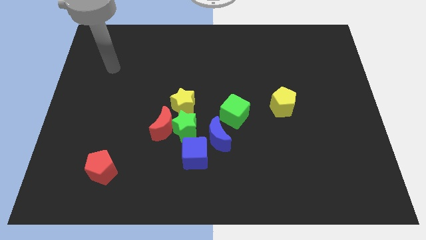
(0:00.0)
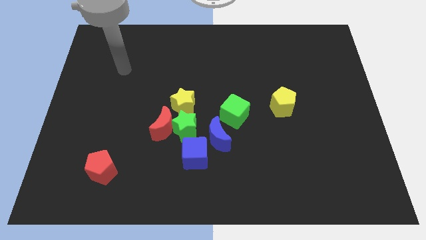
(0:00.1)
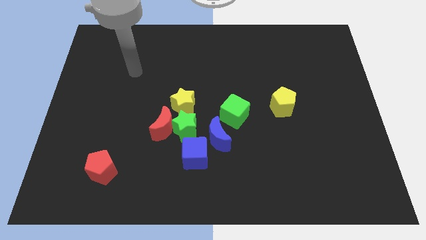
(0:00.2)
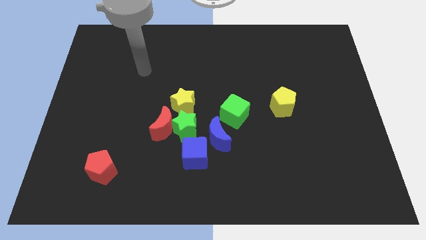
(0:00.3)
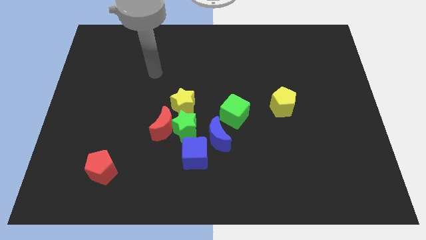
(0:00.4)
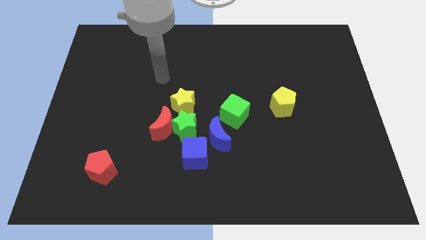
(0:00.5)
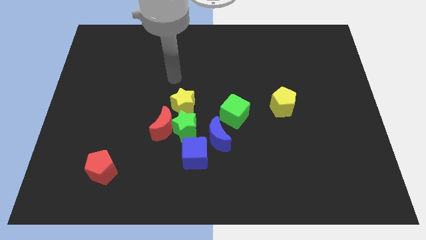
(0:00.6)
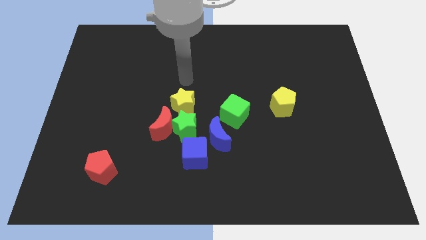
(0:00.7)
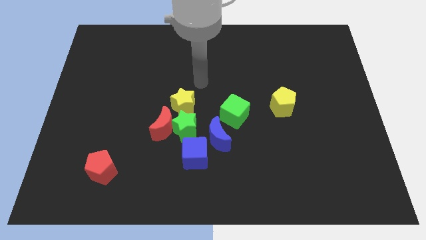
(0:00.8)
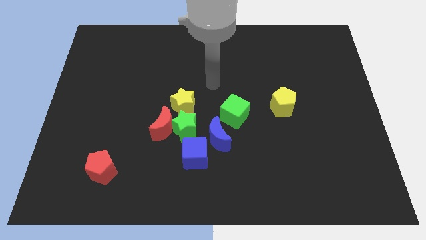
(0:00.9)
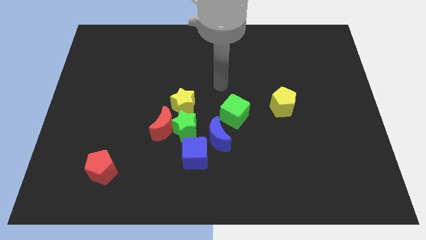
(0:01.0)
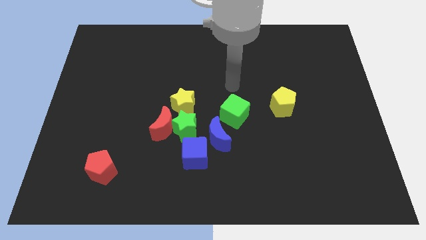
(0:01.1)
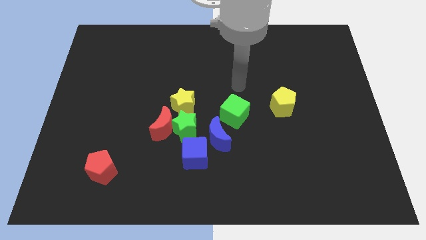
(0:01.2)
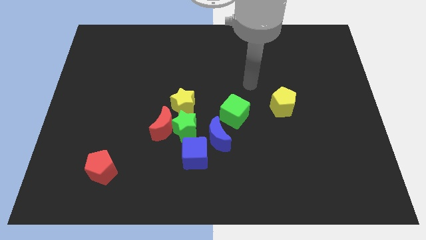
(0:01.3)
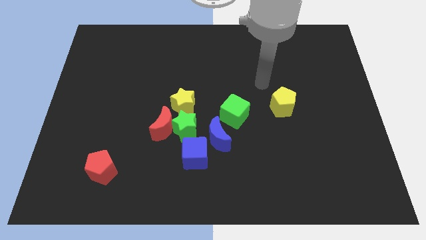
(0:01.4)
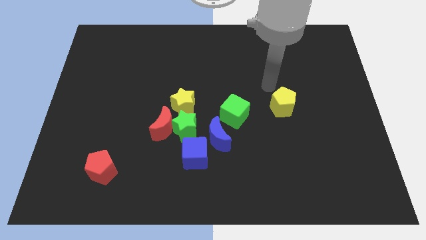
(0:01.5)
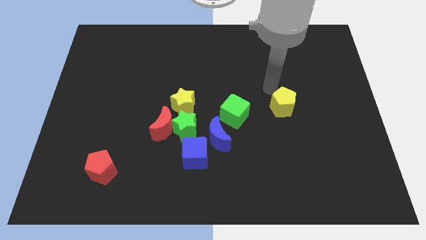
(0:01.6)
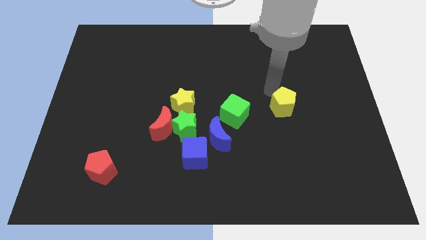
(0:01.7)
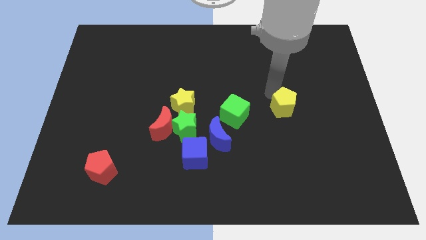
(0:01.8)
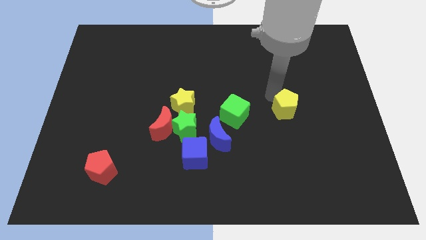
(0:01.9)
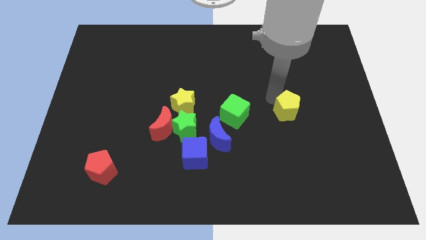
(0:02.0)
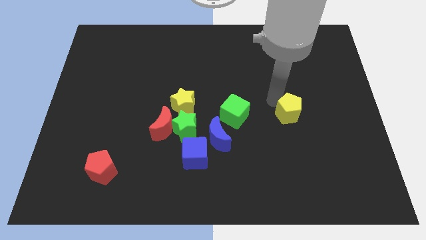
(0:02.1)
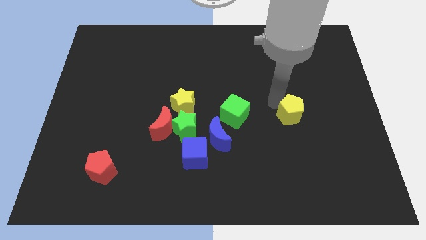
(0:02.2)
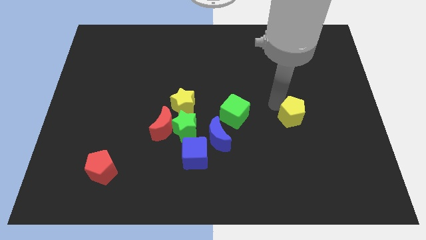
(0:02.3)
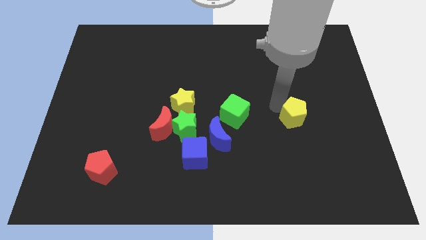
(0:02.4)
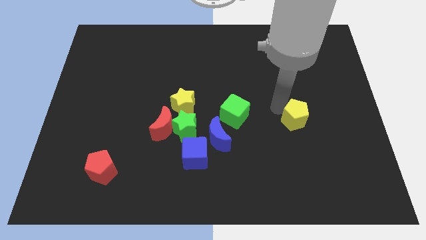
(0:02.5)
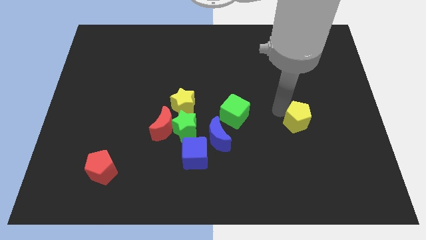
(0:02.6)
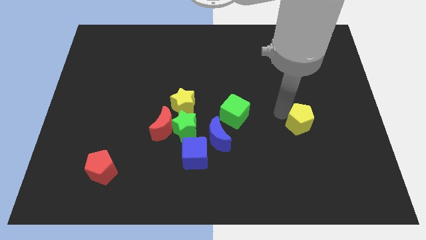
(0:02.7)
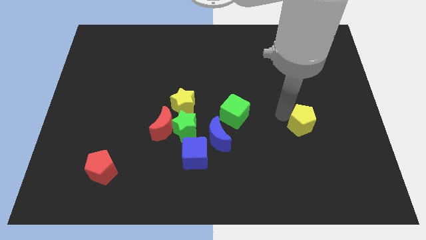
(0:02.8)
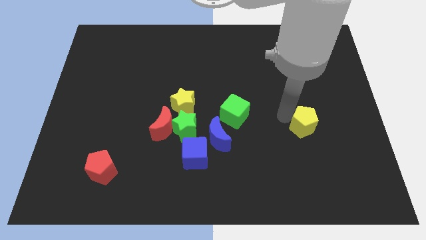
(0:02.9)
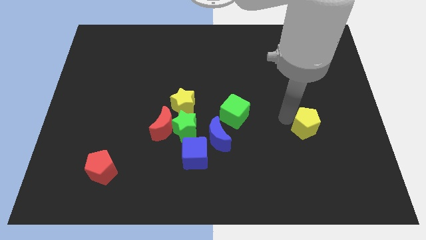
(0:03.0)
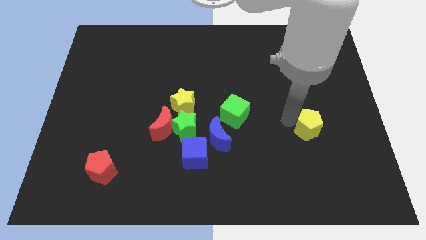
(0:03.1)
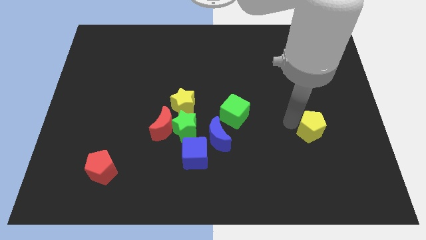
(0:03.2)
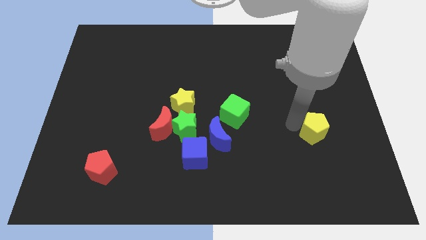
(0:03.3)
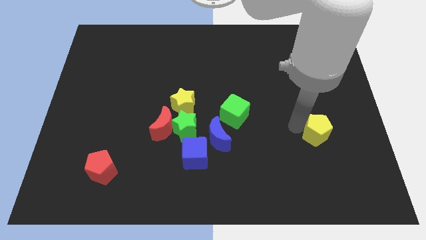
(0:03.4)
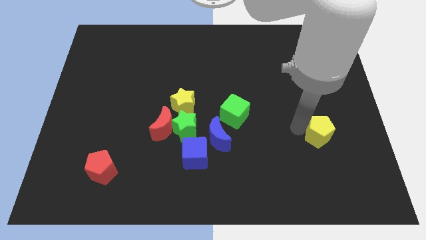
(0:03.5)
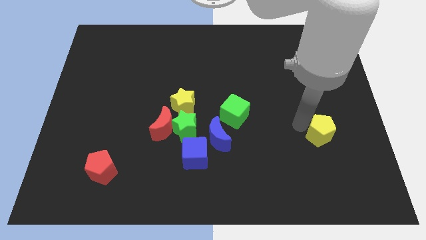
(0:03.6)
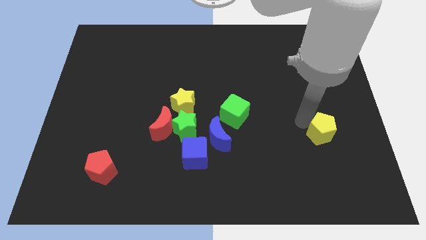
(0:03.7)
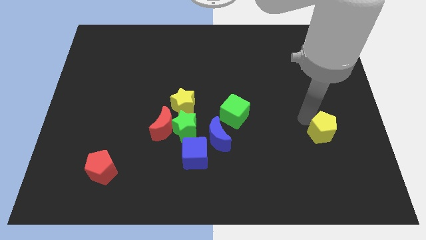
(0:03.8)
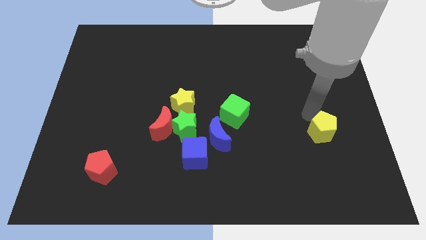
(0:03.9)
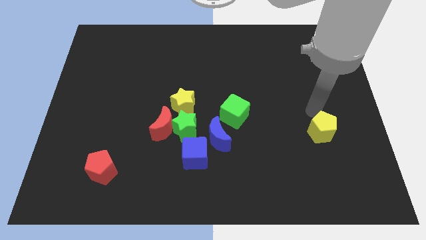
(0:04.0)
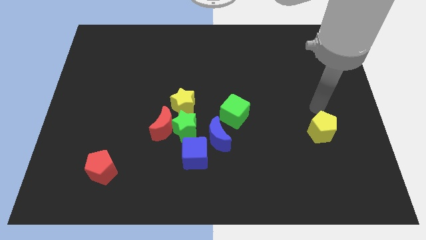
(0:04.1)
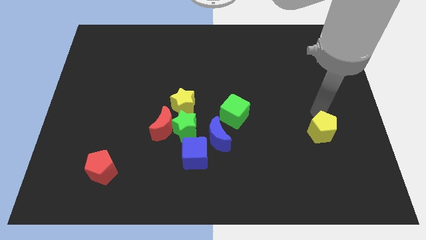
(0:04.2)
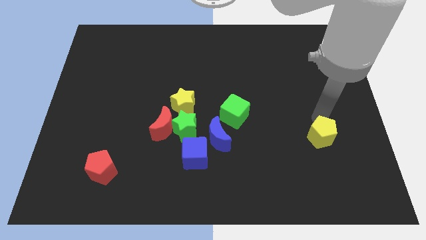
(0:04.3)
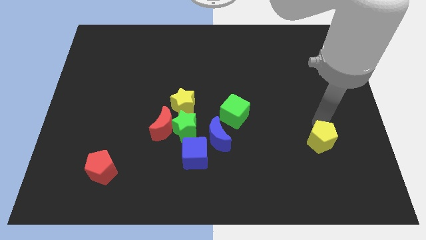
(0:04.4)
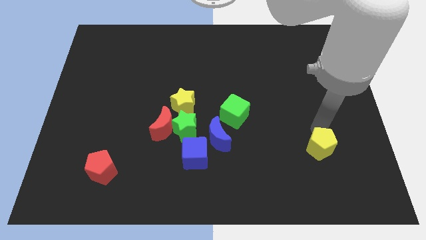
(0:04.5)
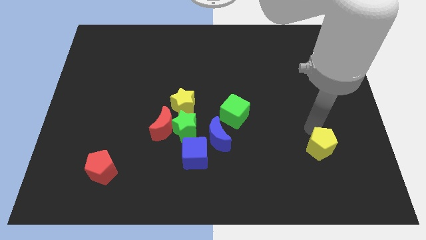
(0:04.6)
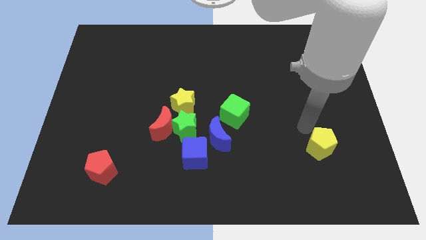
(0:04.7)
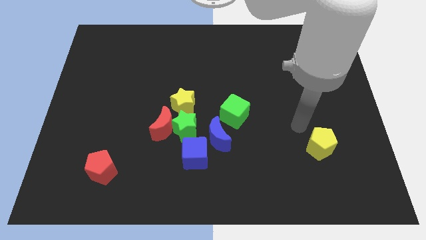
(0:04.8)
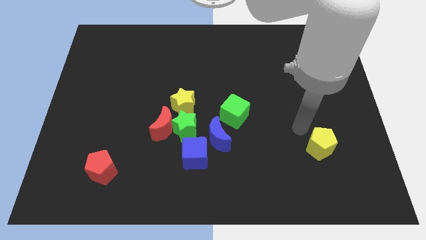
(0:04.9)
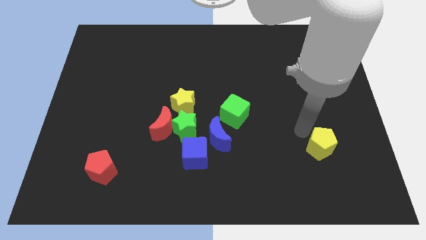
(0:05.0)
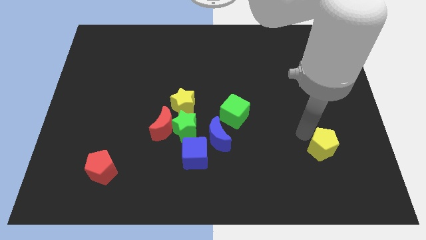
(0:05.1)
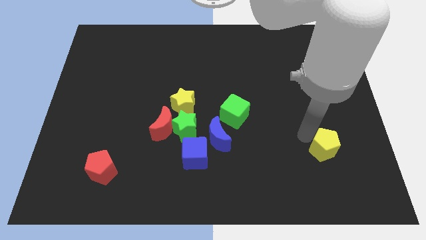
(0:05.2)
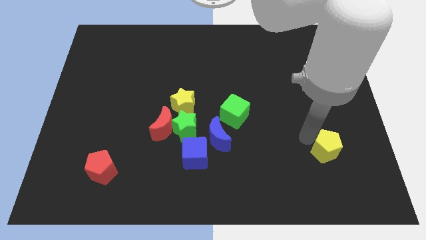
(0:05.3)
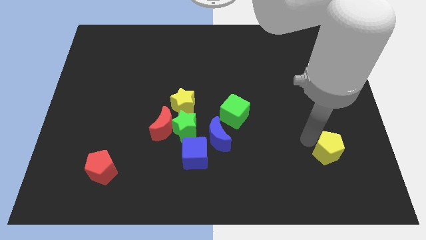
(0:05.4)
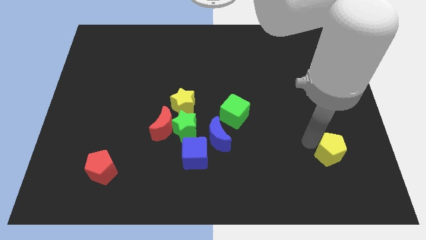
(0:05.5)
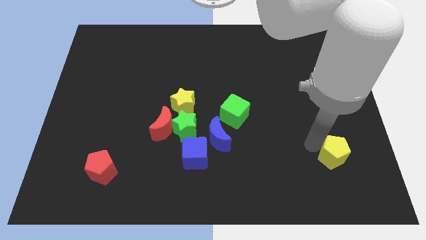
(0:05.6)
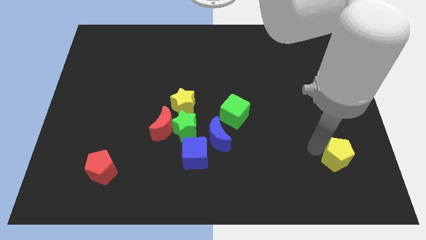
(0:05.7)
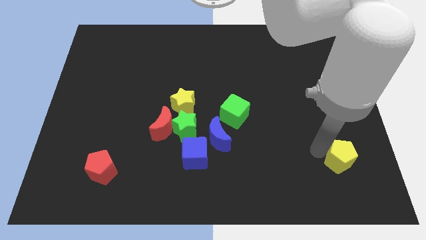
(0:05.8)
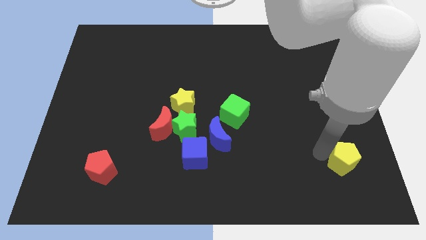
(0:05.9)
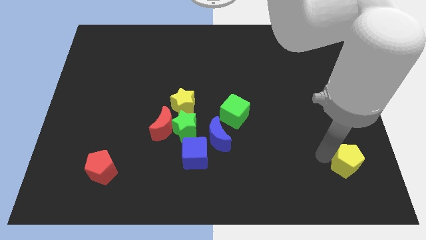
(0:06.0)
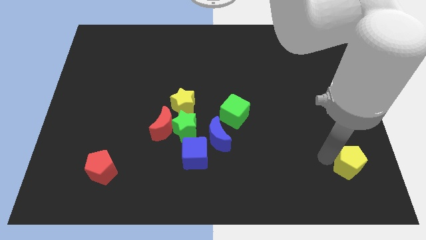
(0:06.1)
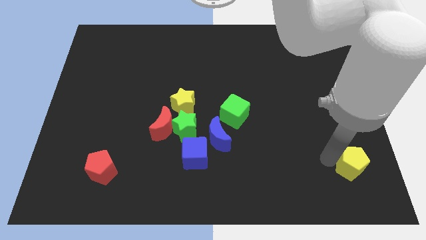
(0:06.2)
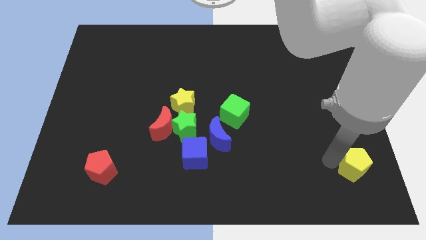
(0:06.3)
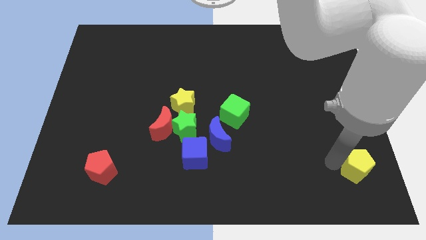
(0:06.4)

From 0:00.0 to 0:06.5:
slide the yellow pentagon to the bottom right of the board
